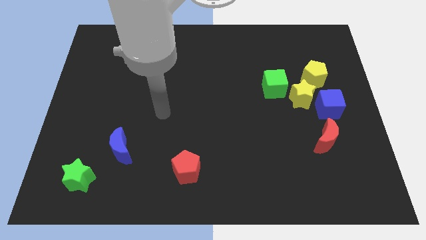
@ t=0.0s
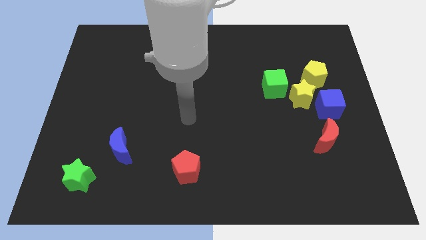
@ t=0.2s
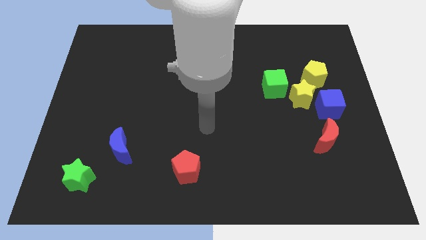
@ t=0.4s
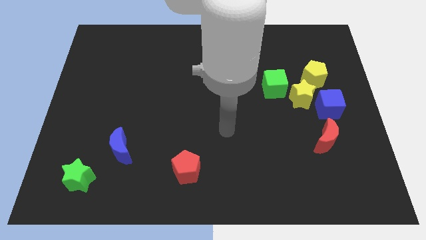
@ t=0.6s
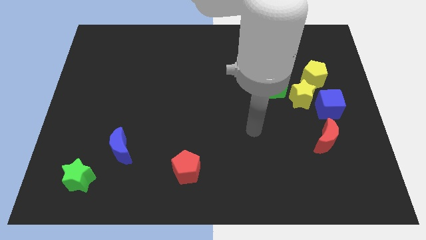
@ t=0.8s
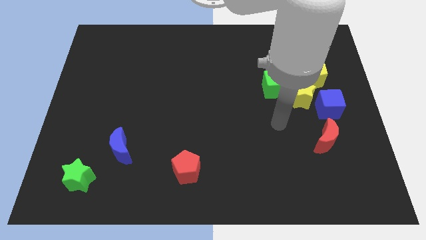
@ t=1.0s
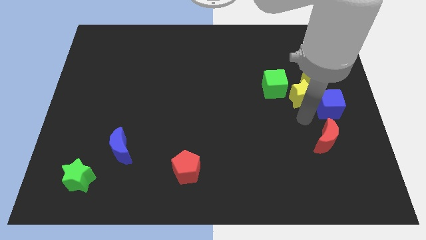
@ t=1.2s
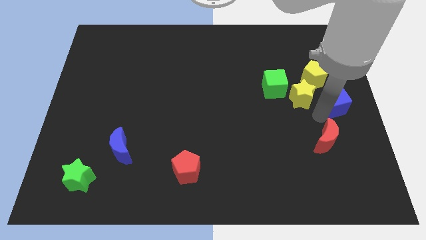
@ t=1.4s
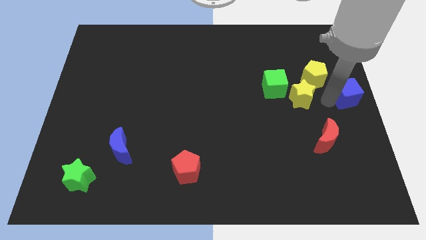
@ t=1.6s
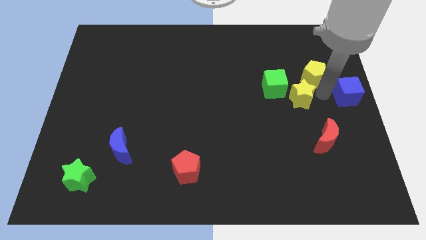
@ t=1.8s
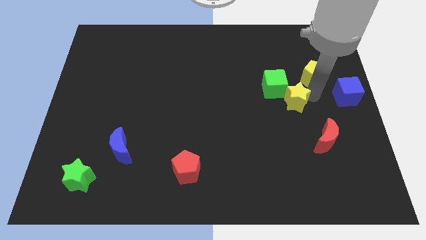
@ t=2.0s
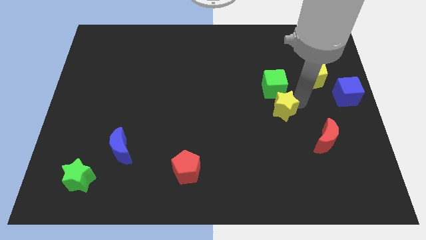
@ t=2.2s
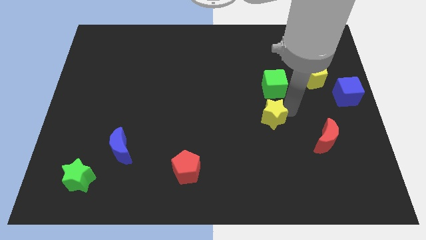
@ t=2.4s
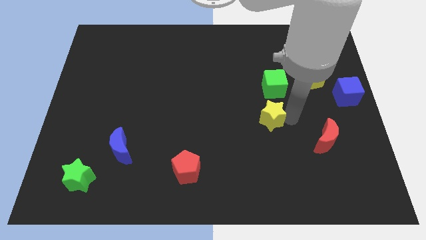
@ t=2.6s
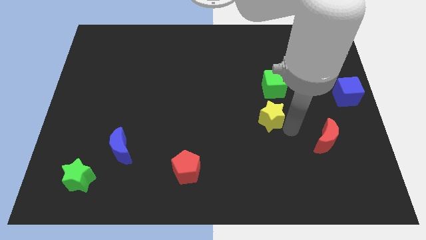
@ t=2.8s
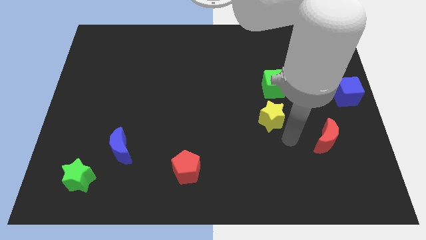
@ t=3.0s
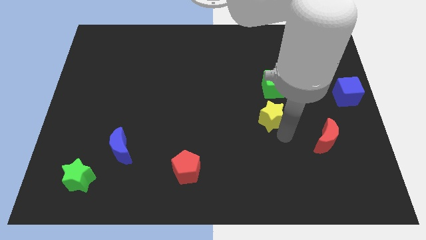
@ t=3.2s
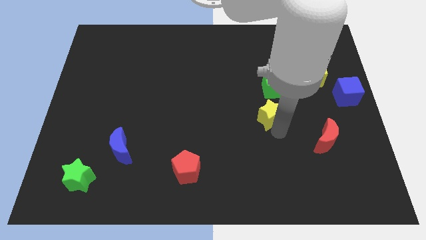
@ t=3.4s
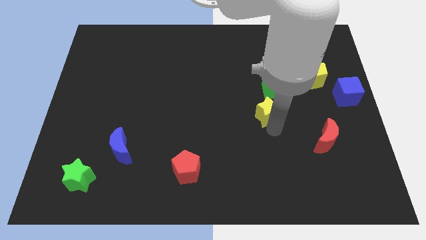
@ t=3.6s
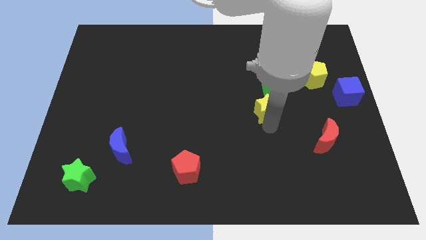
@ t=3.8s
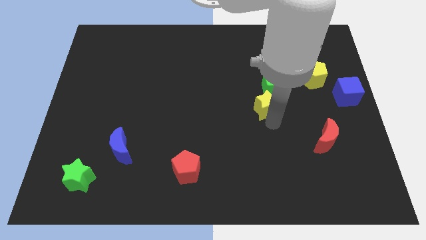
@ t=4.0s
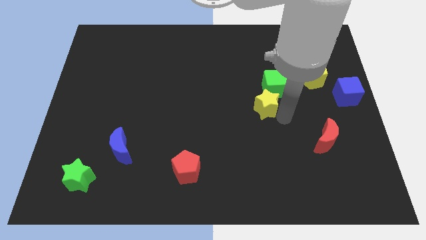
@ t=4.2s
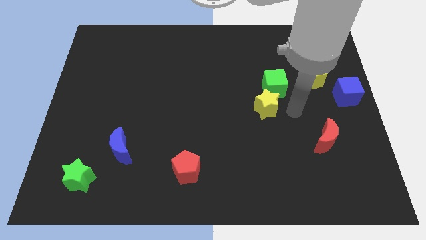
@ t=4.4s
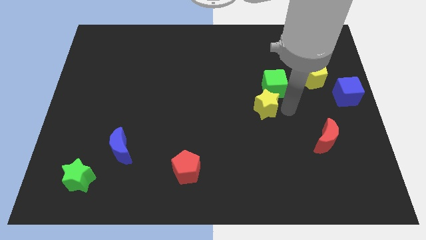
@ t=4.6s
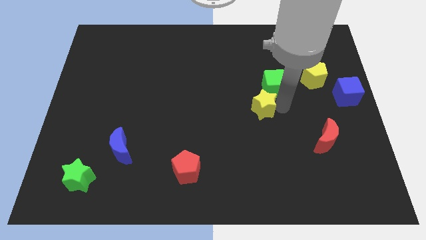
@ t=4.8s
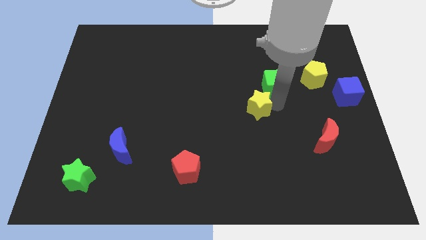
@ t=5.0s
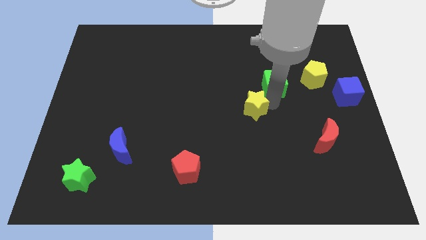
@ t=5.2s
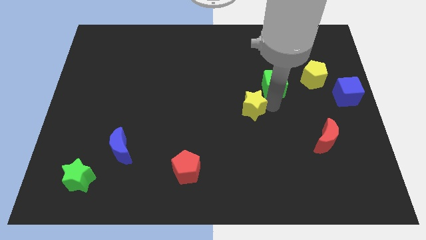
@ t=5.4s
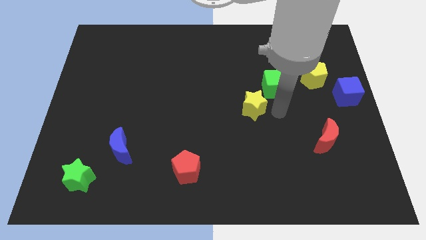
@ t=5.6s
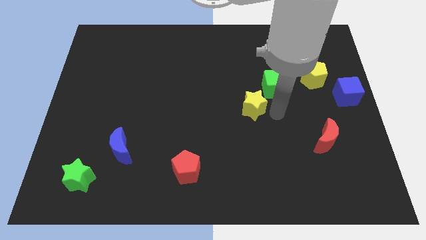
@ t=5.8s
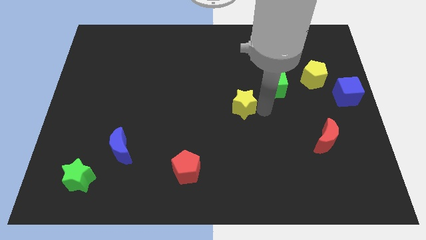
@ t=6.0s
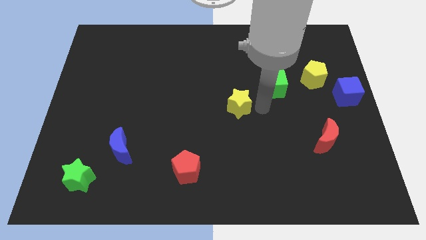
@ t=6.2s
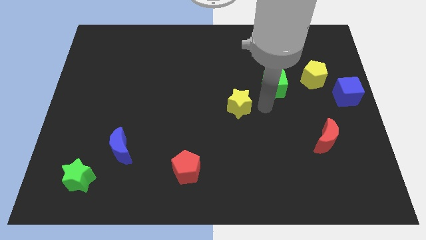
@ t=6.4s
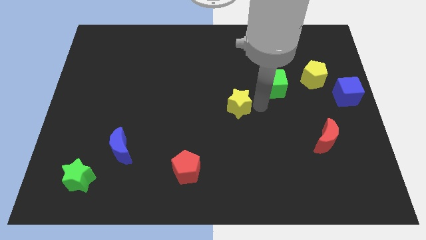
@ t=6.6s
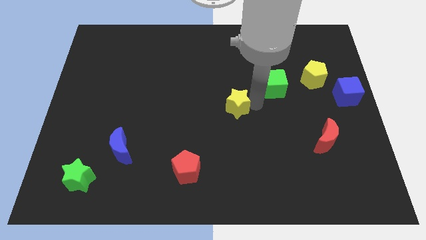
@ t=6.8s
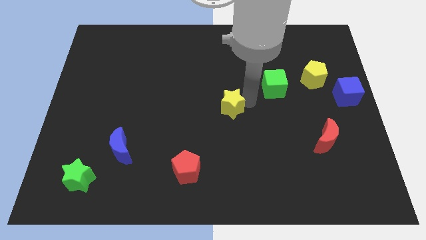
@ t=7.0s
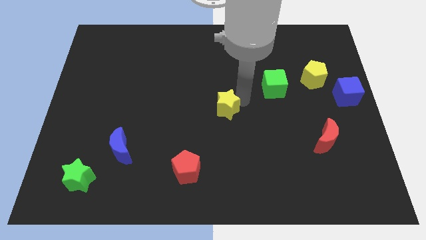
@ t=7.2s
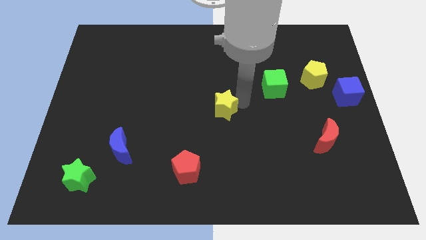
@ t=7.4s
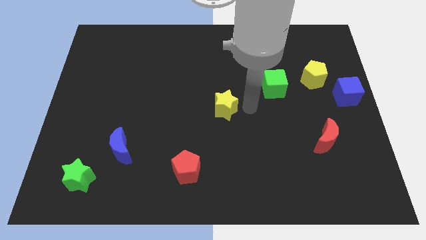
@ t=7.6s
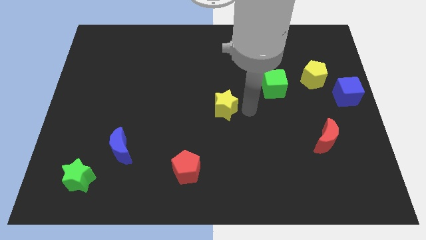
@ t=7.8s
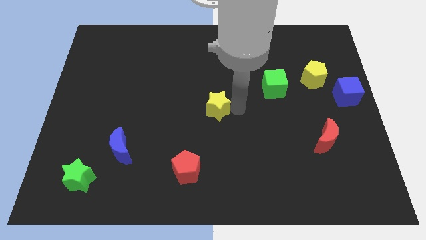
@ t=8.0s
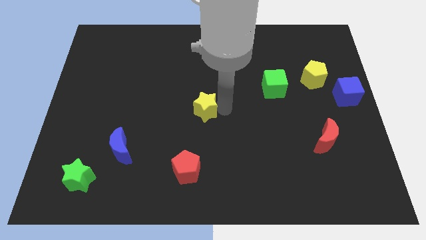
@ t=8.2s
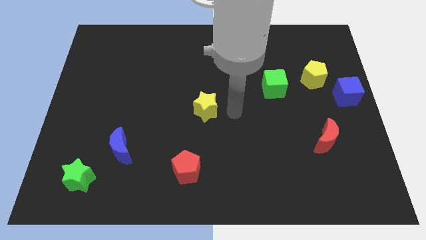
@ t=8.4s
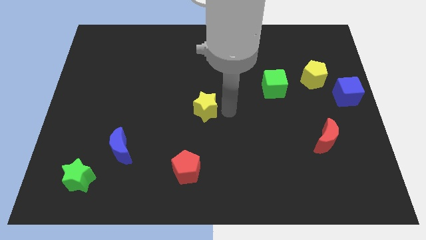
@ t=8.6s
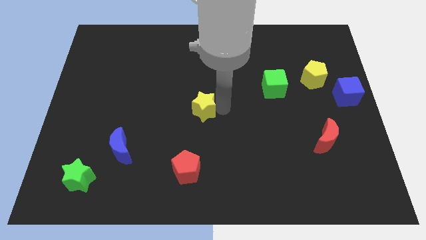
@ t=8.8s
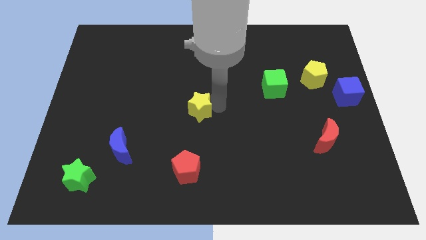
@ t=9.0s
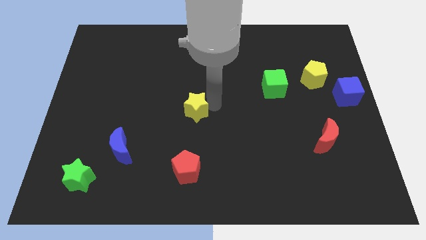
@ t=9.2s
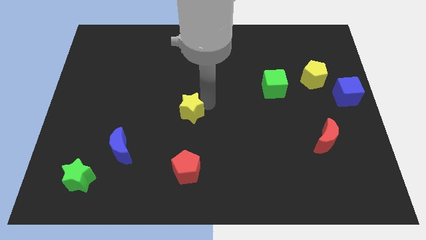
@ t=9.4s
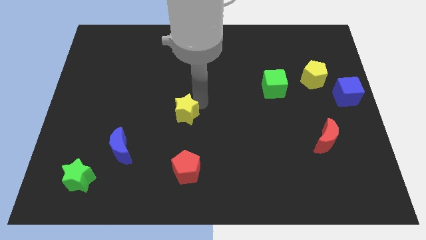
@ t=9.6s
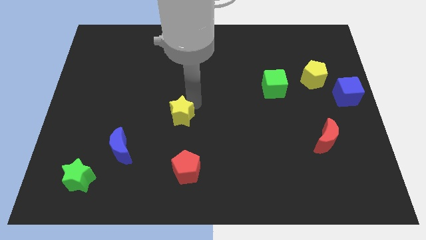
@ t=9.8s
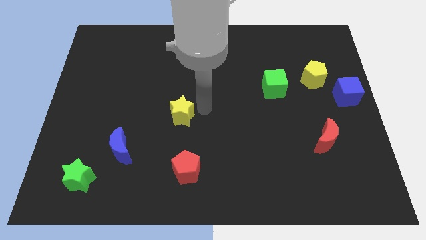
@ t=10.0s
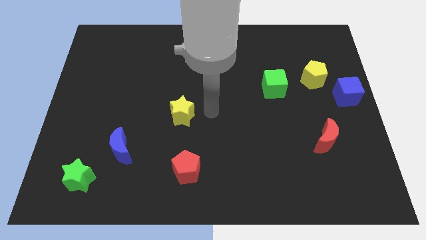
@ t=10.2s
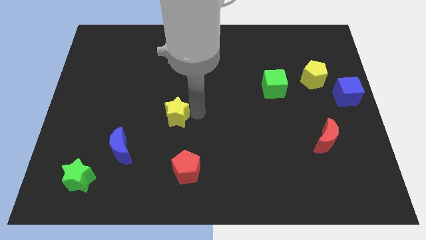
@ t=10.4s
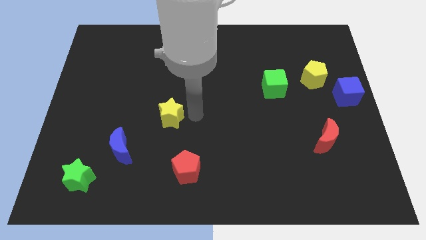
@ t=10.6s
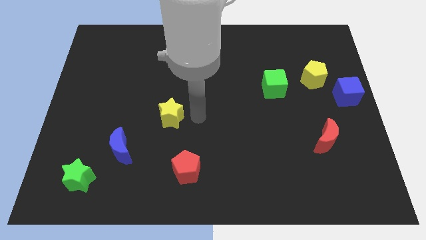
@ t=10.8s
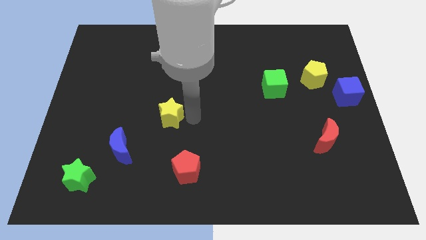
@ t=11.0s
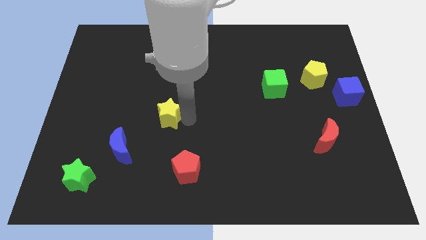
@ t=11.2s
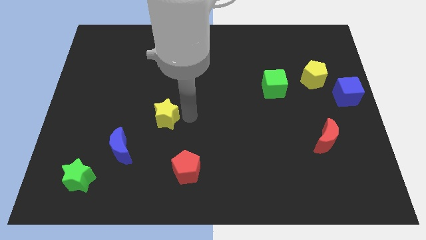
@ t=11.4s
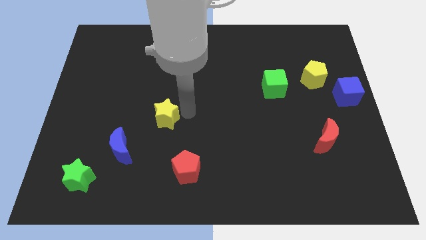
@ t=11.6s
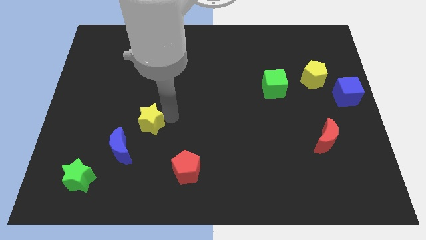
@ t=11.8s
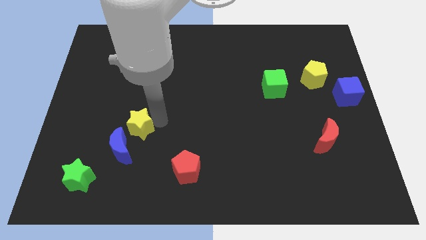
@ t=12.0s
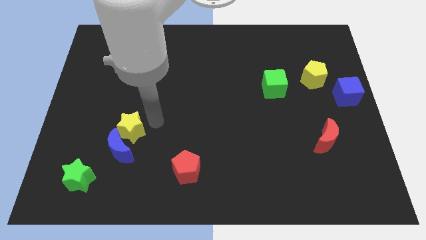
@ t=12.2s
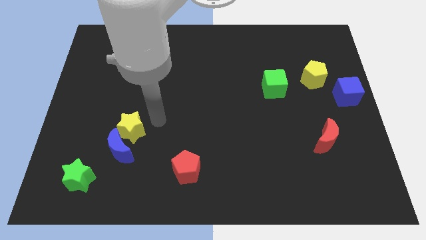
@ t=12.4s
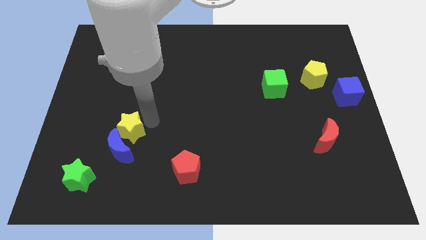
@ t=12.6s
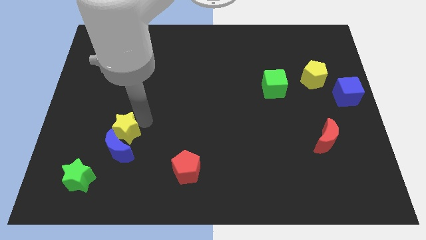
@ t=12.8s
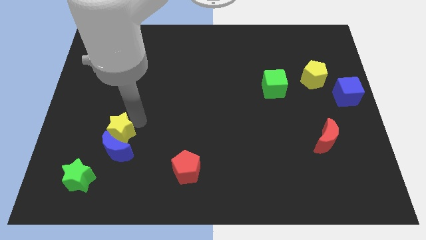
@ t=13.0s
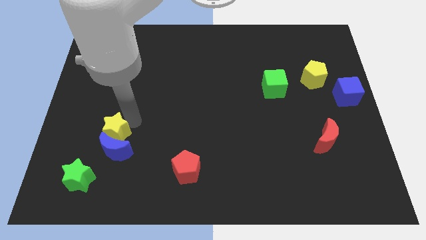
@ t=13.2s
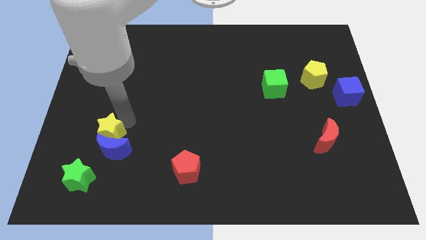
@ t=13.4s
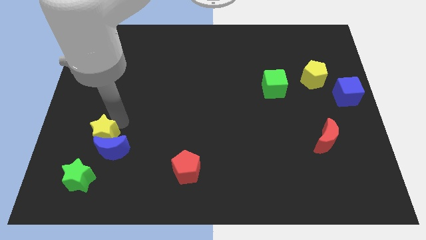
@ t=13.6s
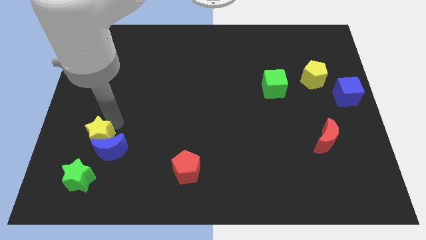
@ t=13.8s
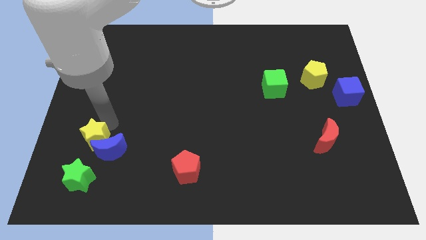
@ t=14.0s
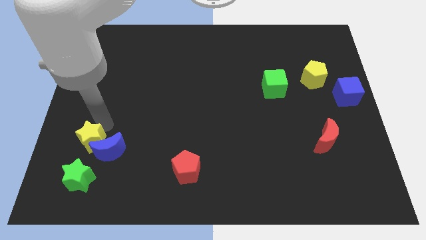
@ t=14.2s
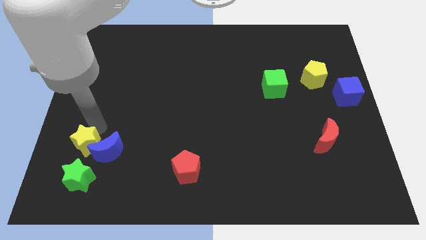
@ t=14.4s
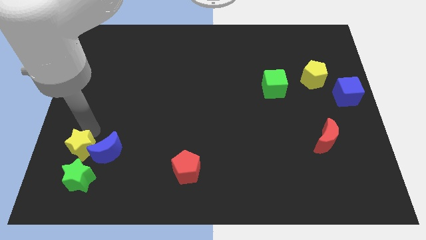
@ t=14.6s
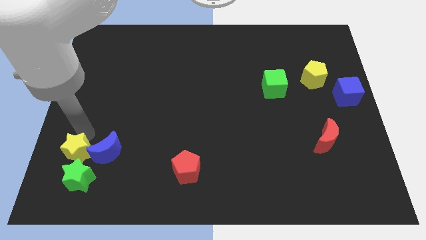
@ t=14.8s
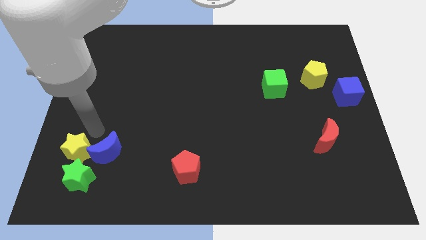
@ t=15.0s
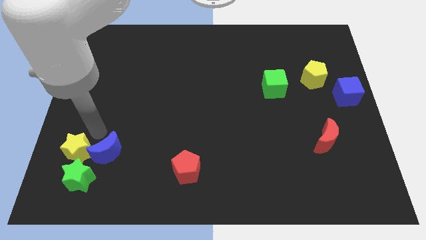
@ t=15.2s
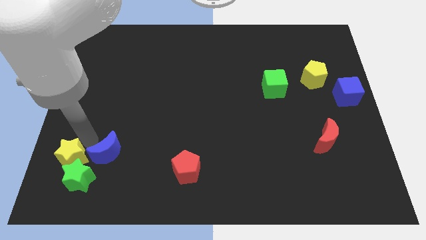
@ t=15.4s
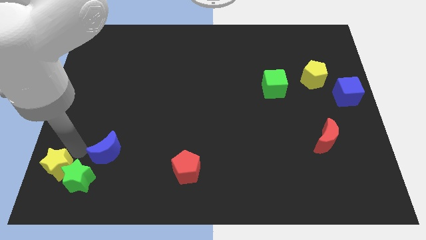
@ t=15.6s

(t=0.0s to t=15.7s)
push the yellow star to the bottom left
